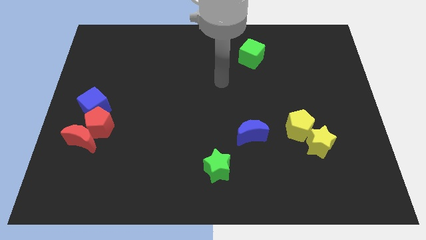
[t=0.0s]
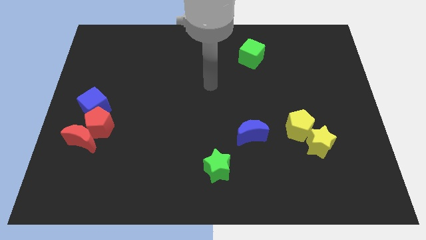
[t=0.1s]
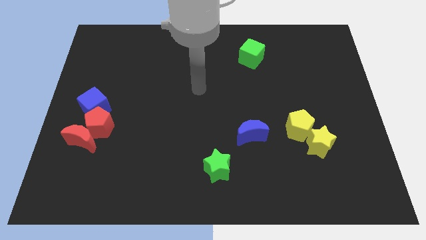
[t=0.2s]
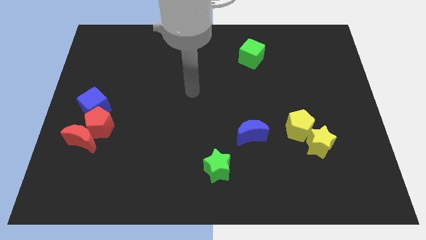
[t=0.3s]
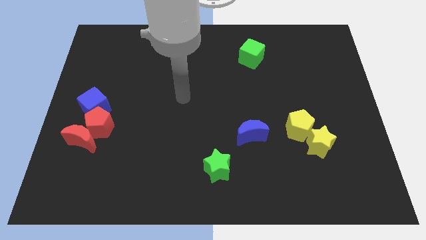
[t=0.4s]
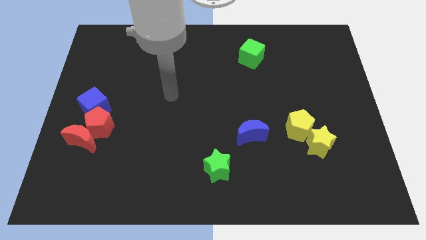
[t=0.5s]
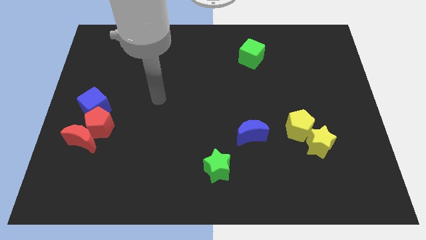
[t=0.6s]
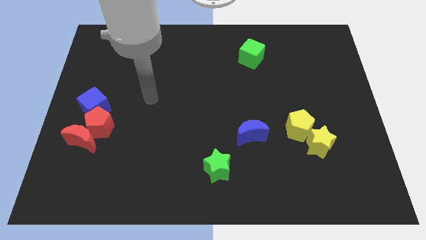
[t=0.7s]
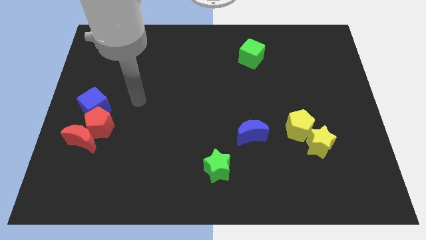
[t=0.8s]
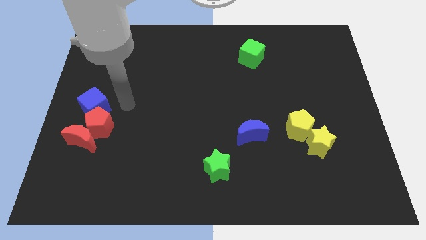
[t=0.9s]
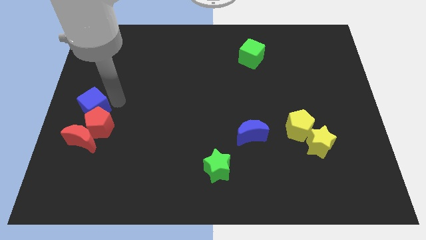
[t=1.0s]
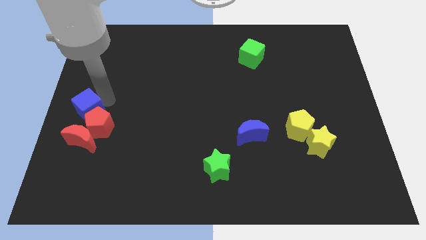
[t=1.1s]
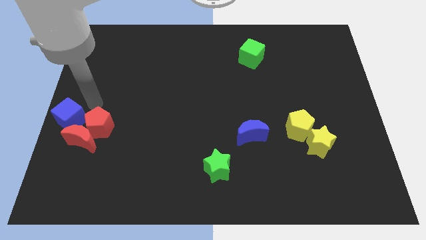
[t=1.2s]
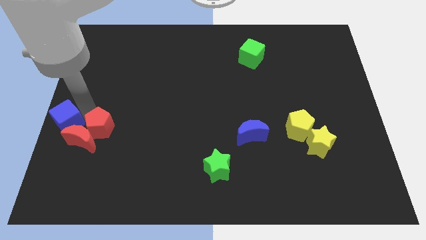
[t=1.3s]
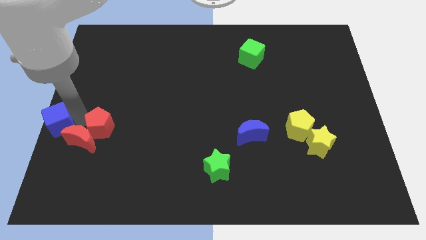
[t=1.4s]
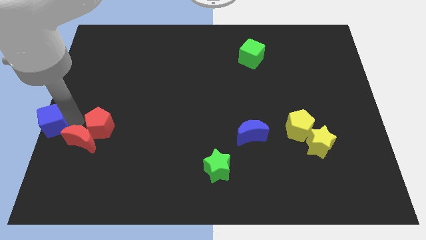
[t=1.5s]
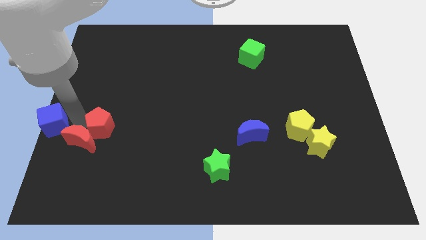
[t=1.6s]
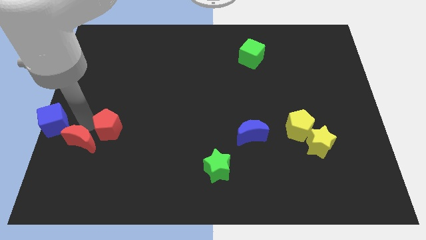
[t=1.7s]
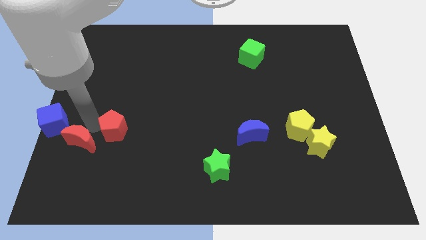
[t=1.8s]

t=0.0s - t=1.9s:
separate the red pentagon from the red moon and blue cube

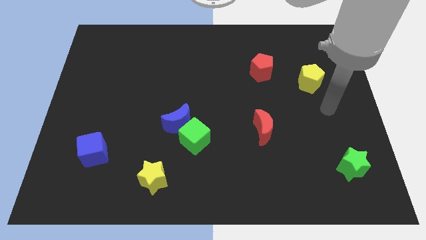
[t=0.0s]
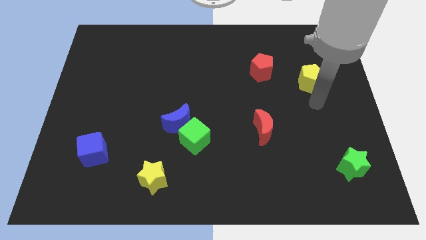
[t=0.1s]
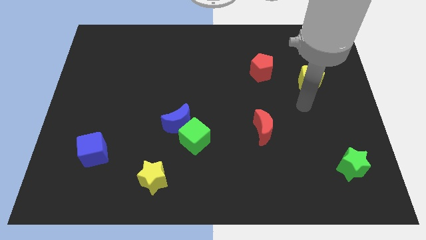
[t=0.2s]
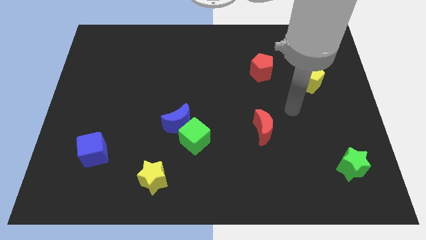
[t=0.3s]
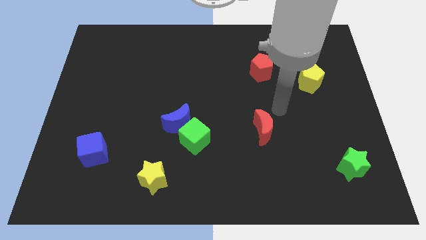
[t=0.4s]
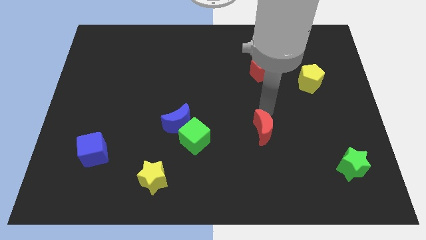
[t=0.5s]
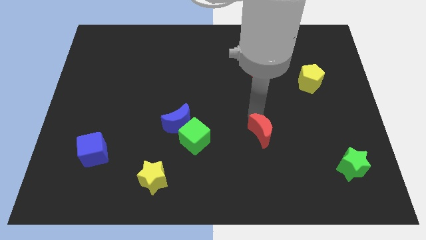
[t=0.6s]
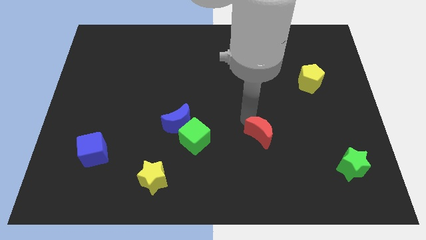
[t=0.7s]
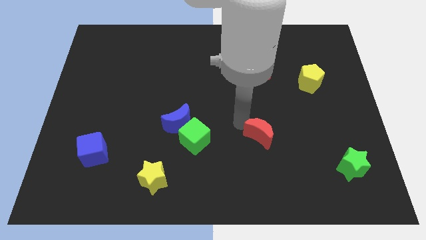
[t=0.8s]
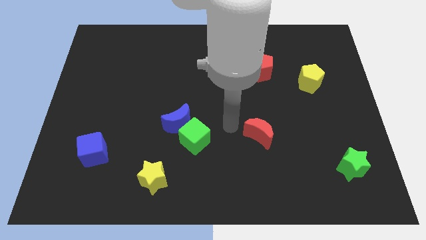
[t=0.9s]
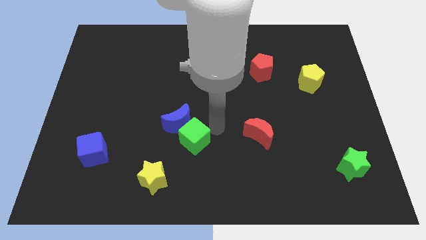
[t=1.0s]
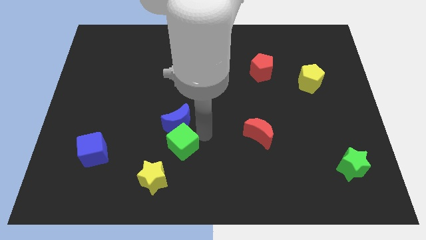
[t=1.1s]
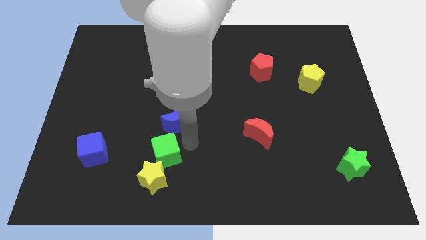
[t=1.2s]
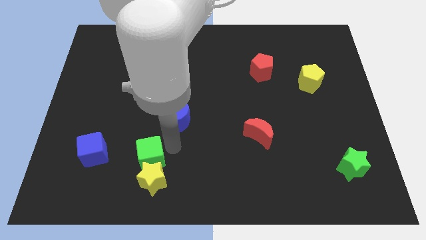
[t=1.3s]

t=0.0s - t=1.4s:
move the blue moon away from the green cube

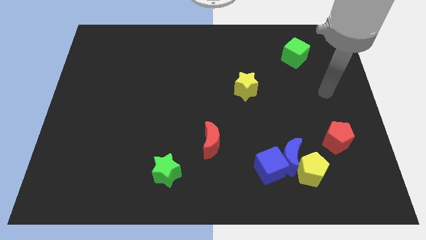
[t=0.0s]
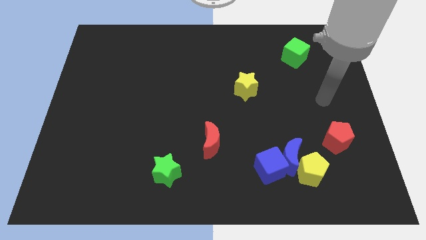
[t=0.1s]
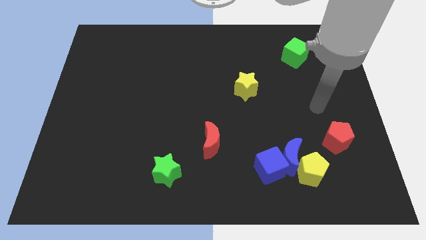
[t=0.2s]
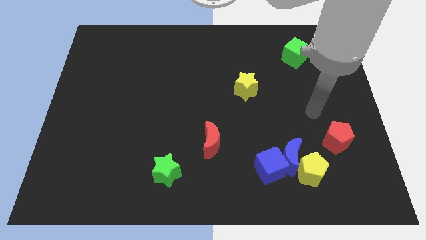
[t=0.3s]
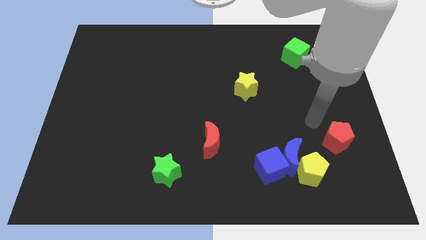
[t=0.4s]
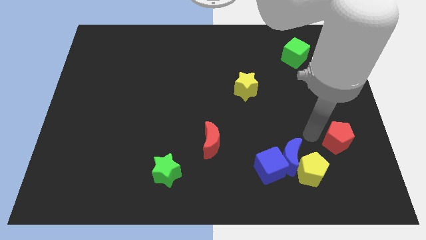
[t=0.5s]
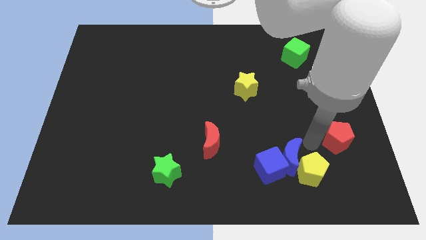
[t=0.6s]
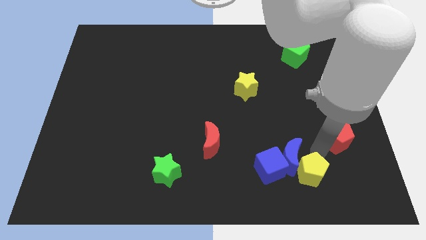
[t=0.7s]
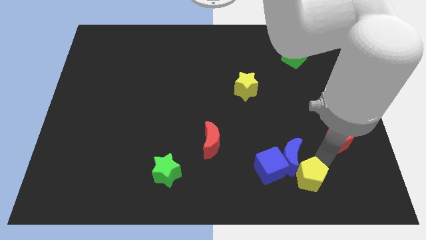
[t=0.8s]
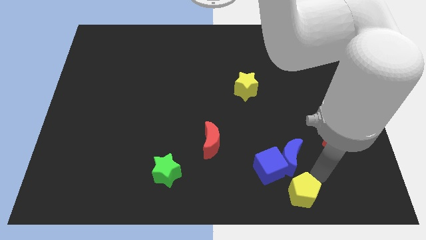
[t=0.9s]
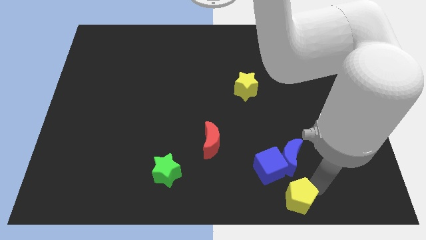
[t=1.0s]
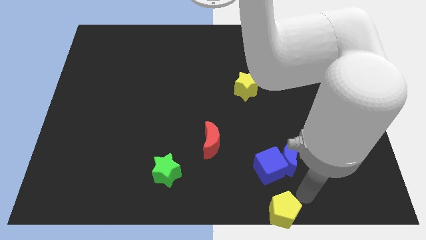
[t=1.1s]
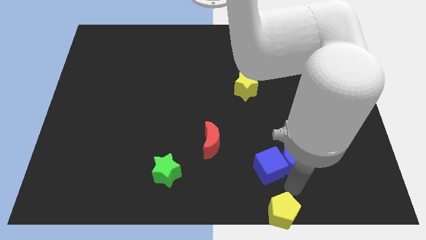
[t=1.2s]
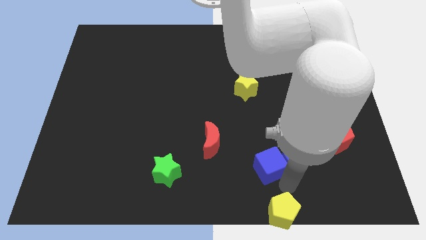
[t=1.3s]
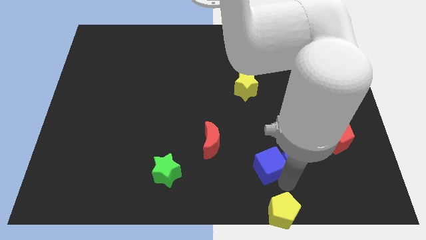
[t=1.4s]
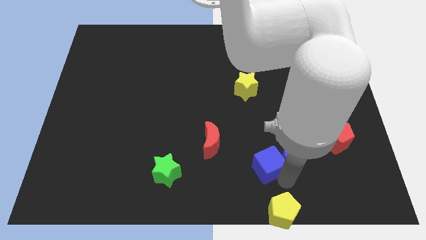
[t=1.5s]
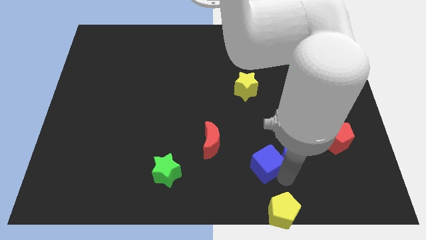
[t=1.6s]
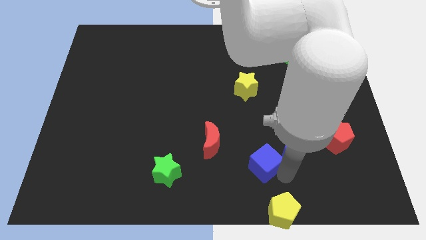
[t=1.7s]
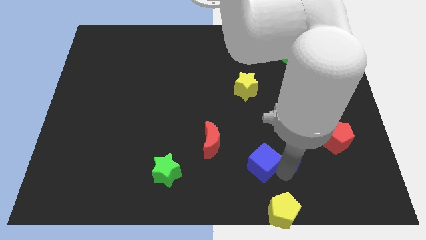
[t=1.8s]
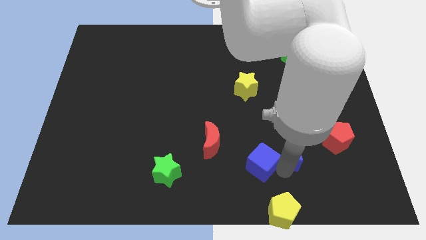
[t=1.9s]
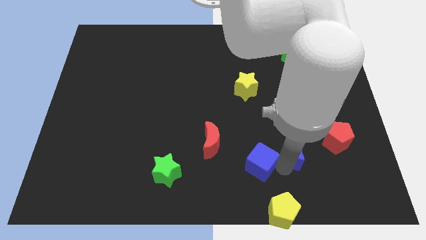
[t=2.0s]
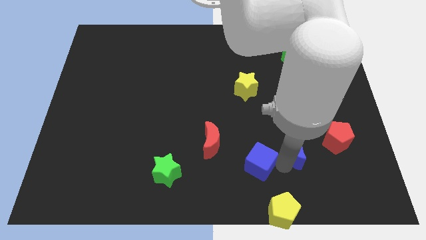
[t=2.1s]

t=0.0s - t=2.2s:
separate the blue moon from the blue cube and yellow pentagon

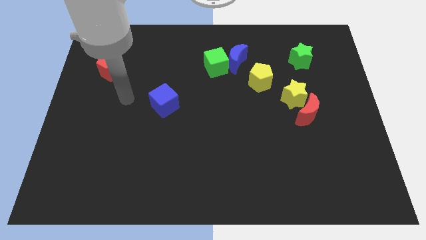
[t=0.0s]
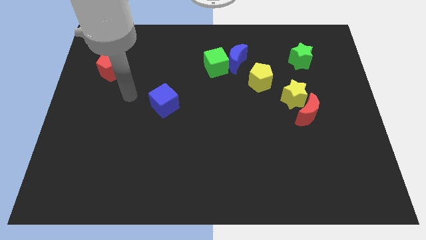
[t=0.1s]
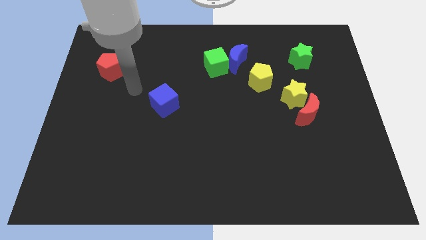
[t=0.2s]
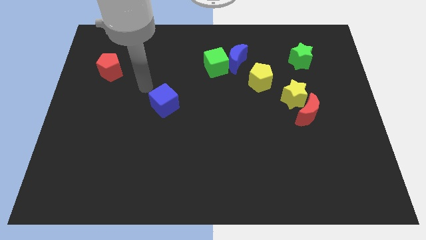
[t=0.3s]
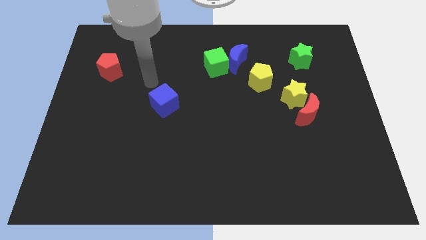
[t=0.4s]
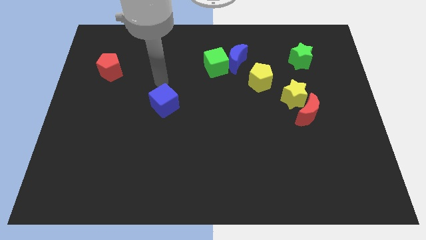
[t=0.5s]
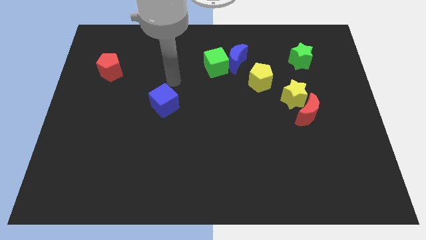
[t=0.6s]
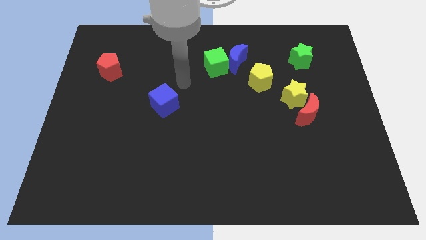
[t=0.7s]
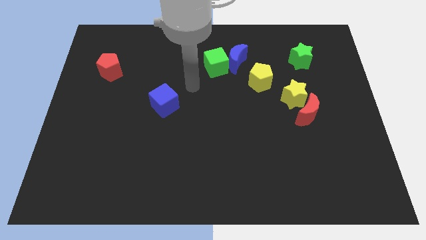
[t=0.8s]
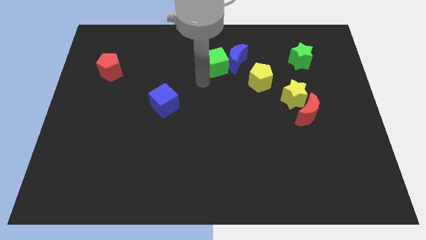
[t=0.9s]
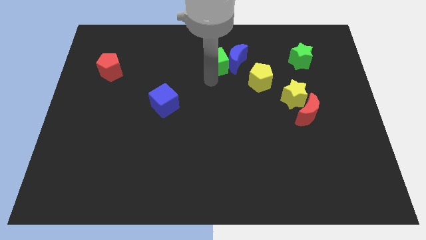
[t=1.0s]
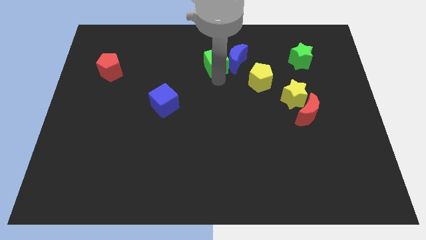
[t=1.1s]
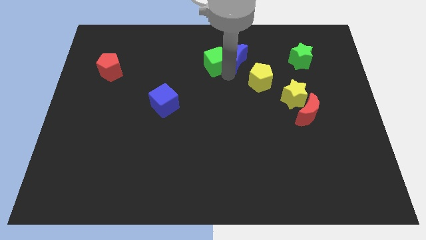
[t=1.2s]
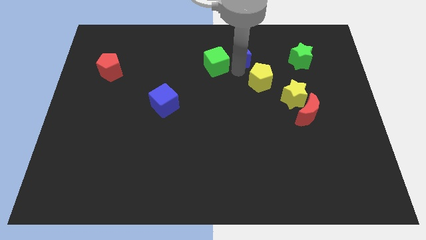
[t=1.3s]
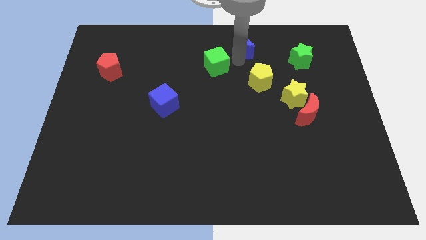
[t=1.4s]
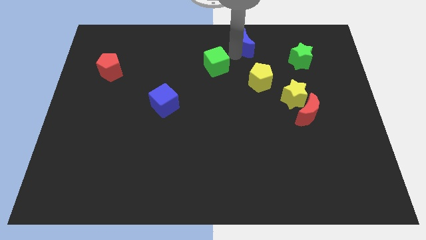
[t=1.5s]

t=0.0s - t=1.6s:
move the green cube away from the blue moon

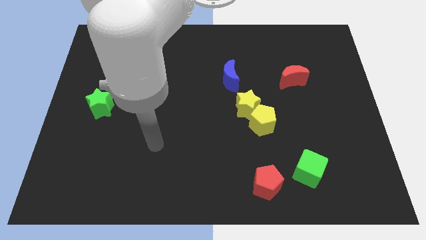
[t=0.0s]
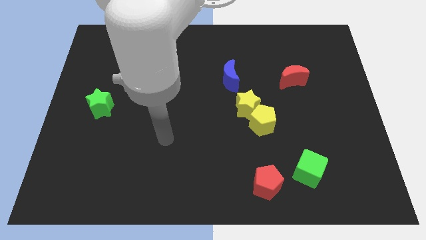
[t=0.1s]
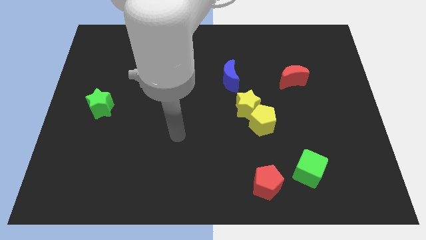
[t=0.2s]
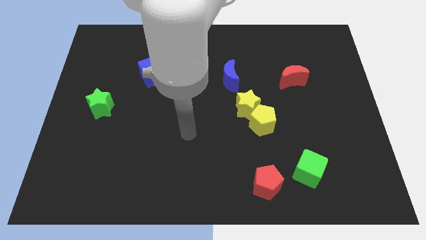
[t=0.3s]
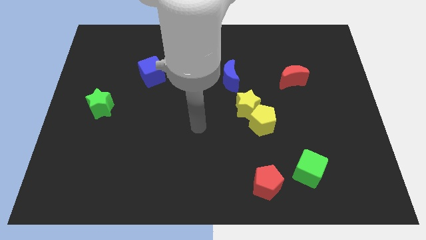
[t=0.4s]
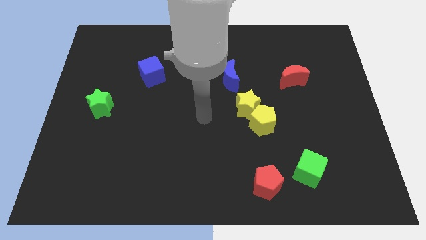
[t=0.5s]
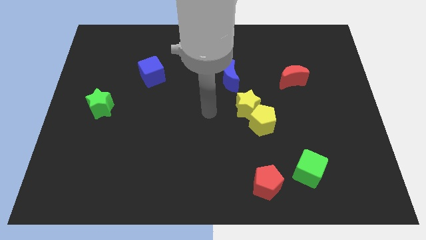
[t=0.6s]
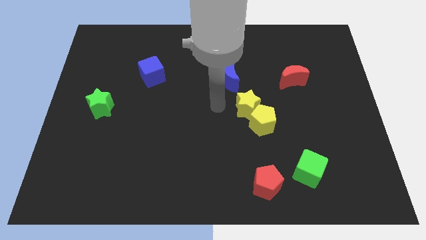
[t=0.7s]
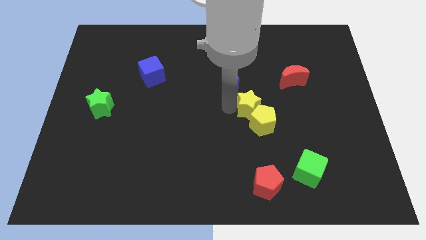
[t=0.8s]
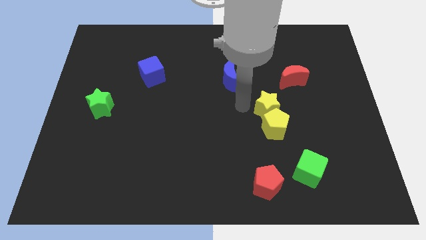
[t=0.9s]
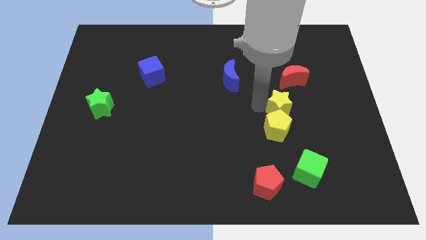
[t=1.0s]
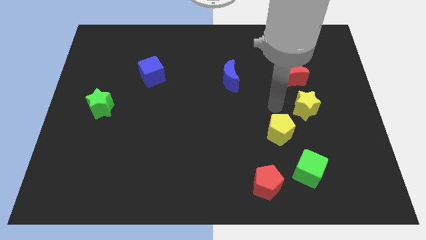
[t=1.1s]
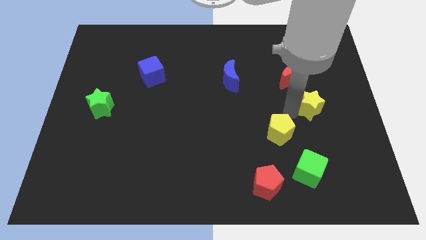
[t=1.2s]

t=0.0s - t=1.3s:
pull the yellow pentagon apart from the yellow star

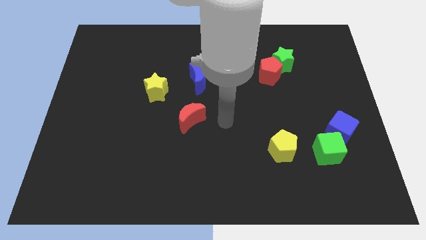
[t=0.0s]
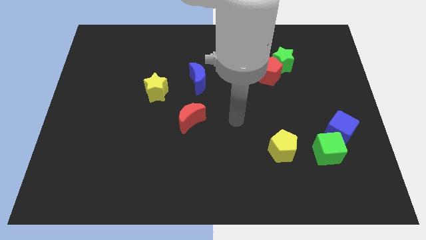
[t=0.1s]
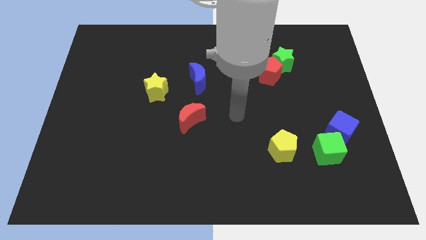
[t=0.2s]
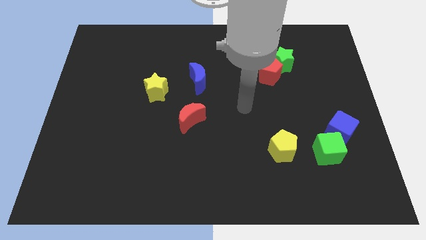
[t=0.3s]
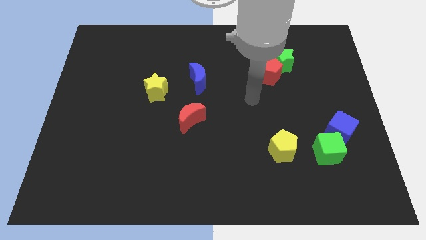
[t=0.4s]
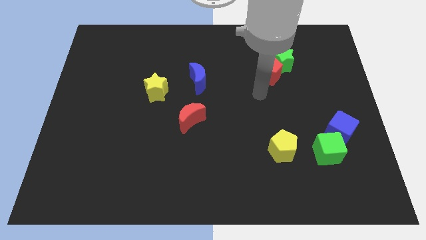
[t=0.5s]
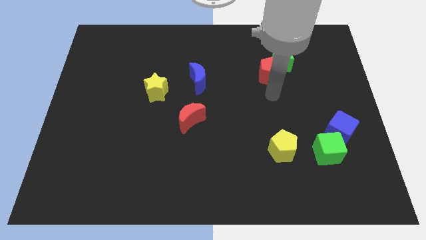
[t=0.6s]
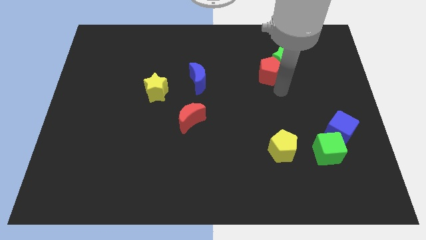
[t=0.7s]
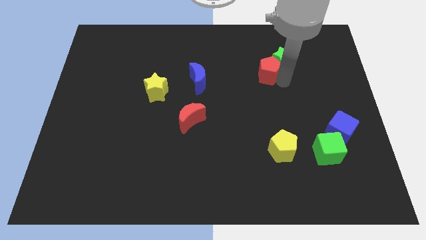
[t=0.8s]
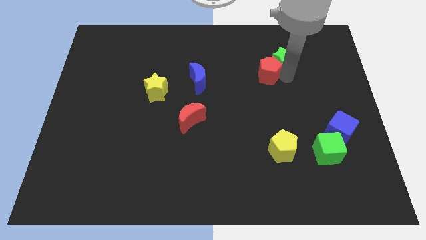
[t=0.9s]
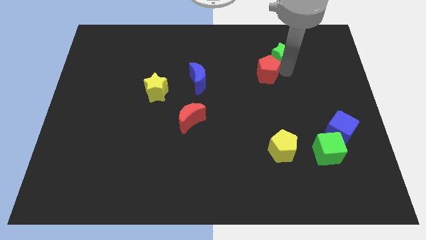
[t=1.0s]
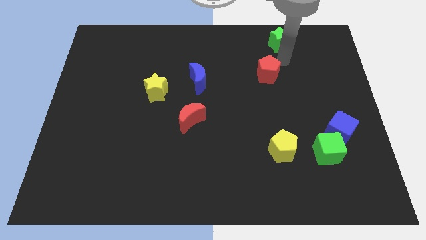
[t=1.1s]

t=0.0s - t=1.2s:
separate the red pentagon from the green star
